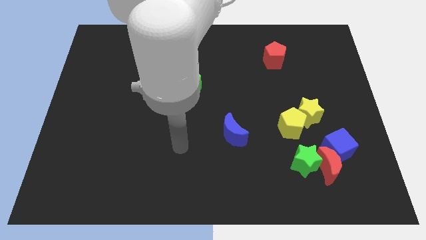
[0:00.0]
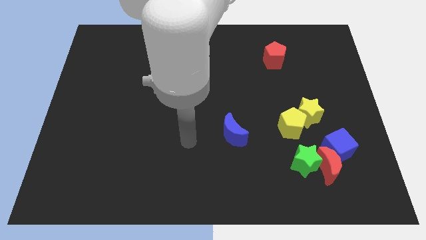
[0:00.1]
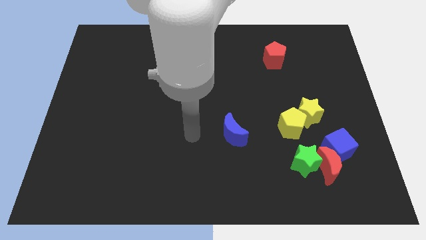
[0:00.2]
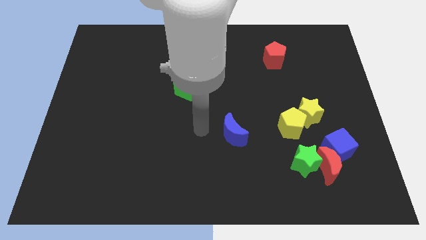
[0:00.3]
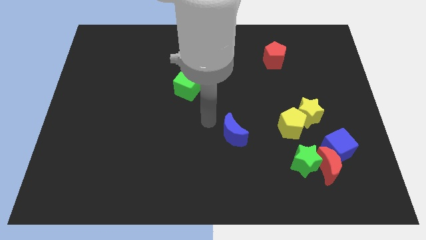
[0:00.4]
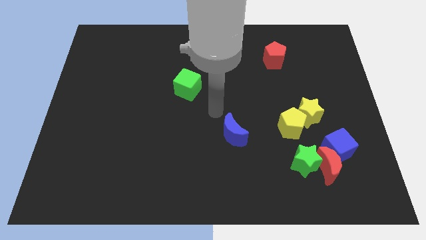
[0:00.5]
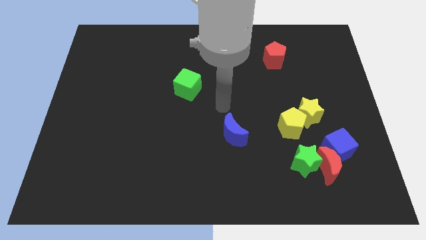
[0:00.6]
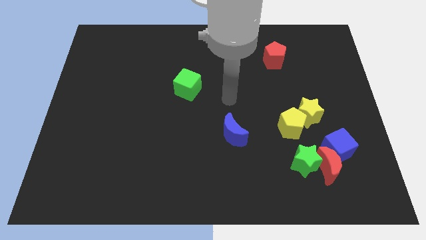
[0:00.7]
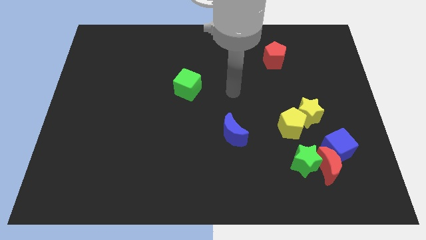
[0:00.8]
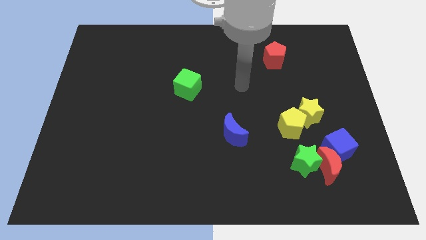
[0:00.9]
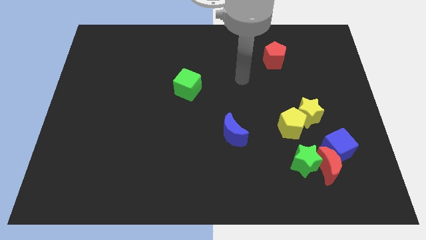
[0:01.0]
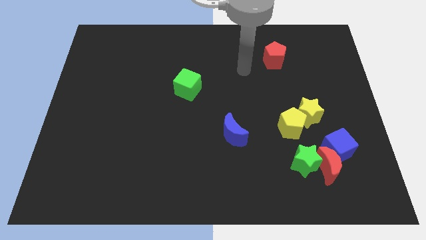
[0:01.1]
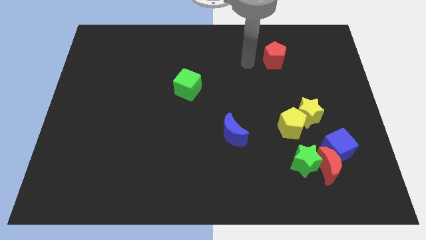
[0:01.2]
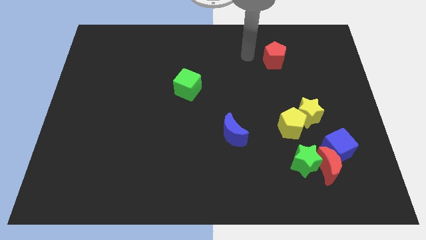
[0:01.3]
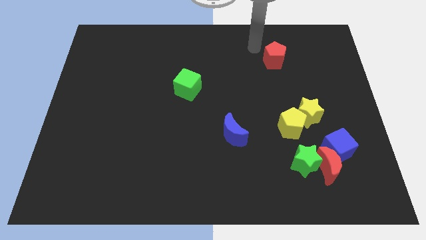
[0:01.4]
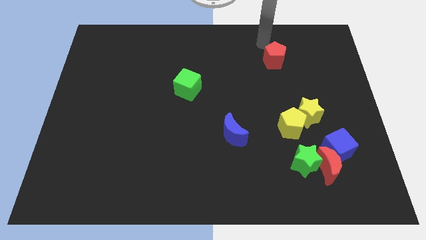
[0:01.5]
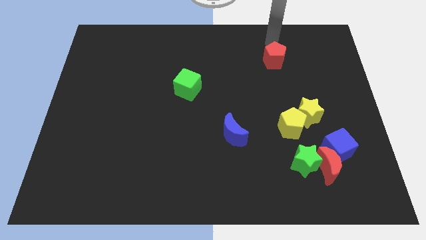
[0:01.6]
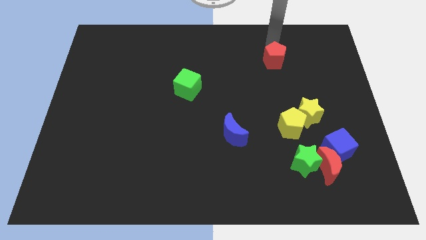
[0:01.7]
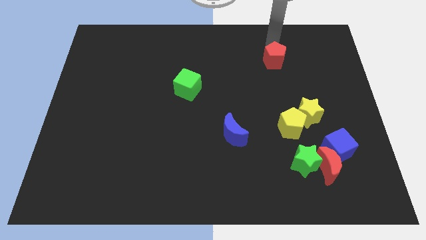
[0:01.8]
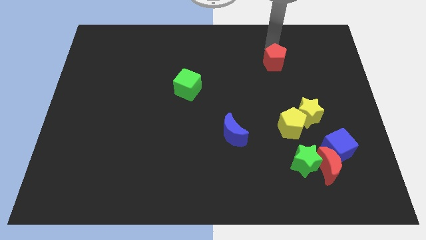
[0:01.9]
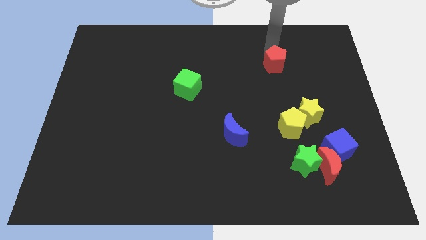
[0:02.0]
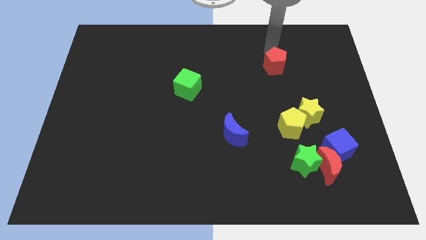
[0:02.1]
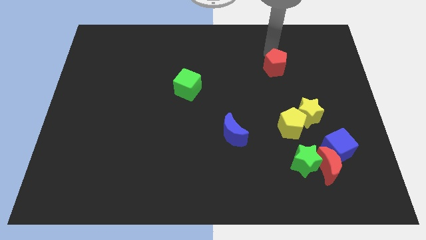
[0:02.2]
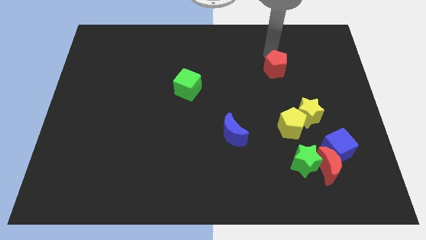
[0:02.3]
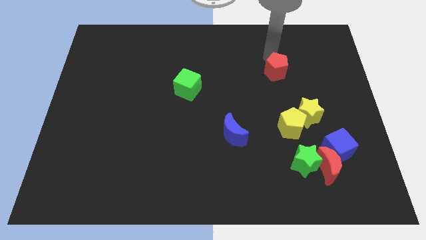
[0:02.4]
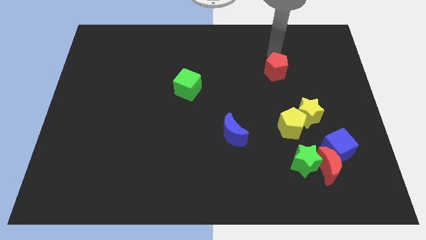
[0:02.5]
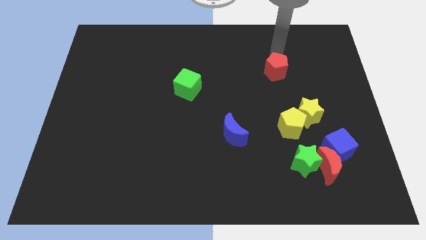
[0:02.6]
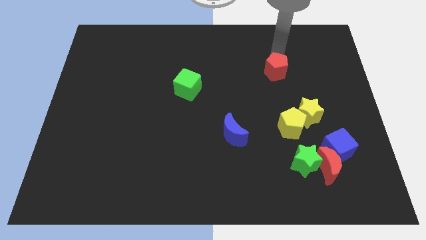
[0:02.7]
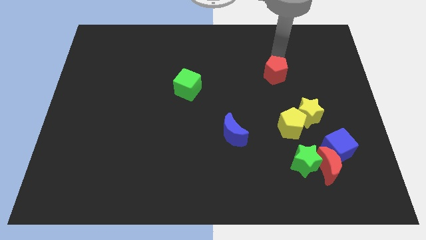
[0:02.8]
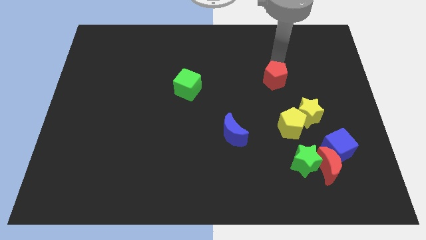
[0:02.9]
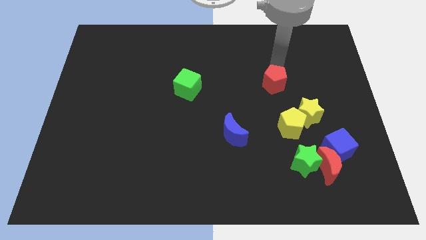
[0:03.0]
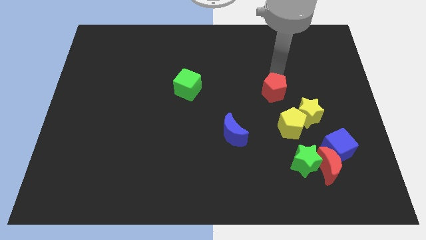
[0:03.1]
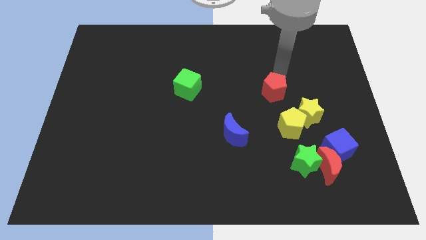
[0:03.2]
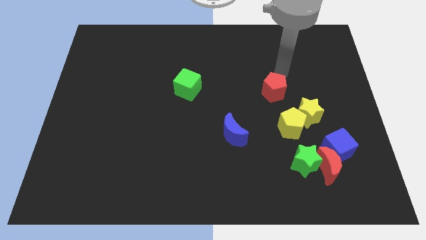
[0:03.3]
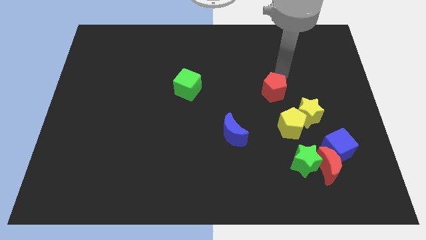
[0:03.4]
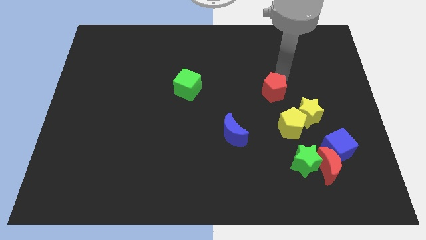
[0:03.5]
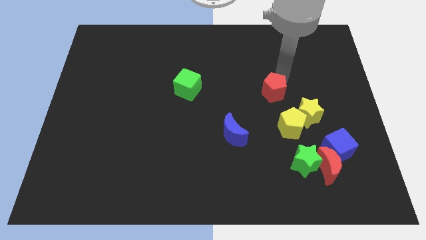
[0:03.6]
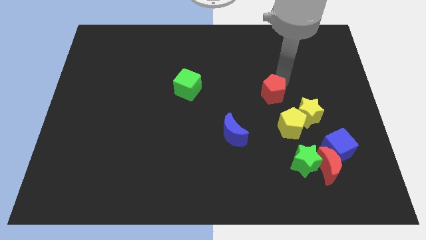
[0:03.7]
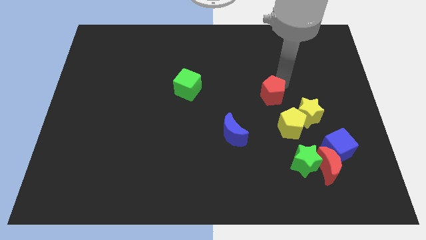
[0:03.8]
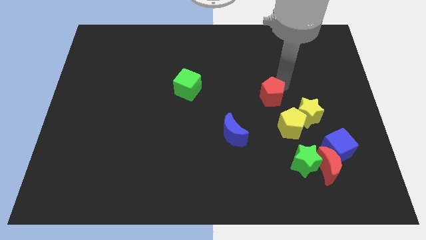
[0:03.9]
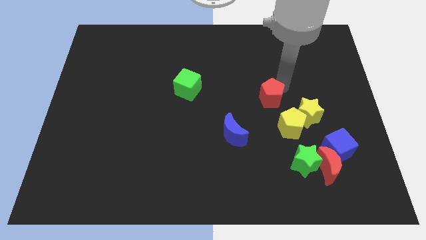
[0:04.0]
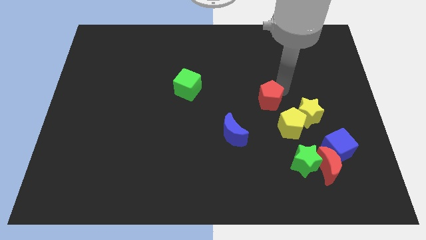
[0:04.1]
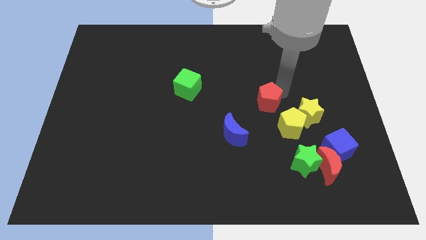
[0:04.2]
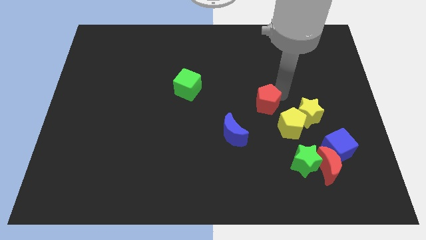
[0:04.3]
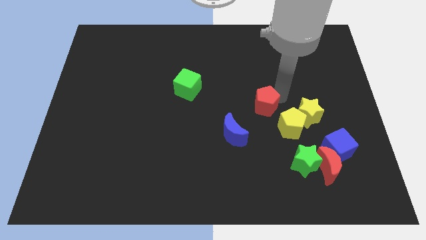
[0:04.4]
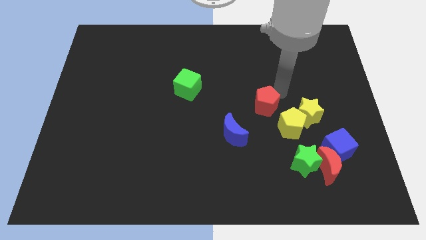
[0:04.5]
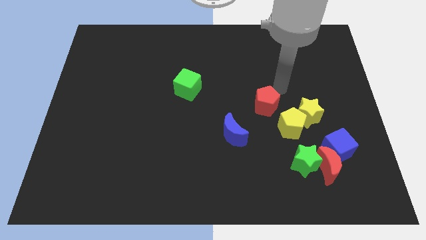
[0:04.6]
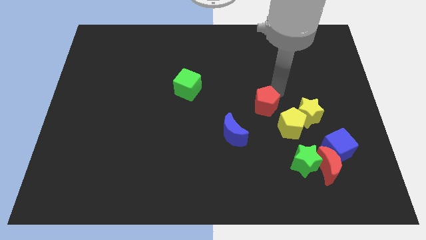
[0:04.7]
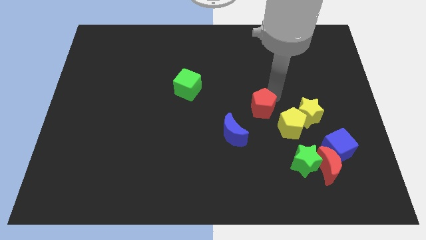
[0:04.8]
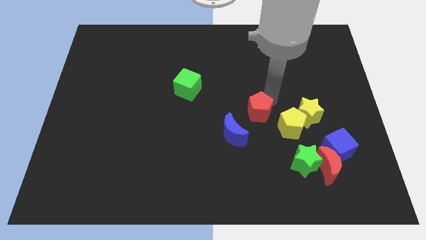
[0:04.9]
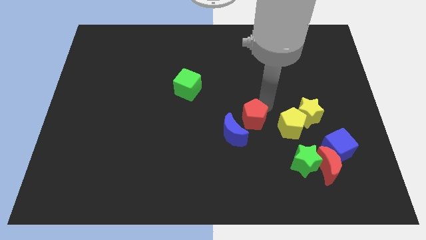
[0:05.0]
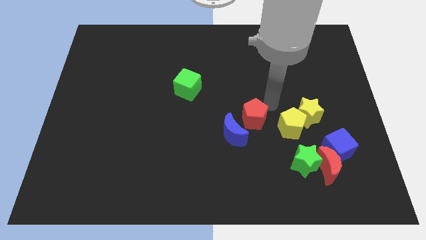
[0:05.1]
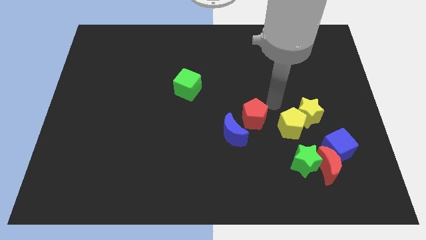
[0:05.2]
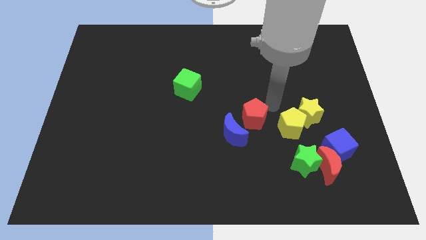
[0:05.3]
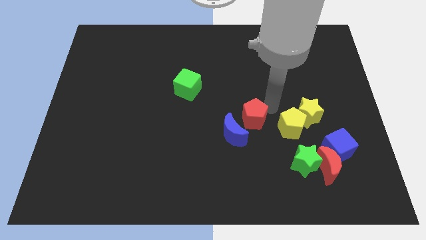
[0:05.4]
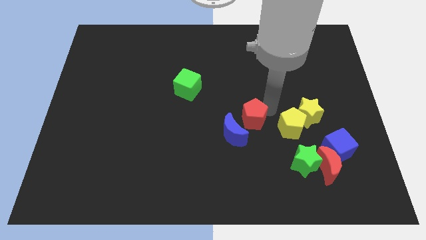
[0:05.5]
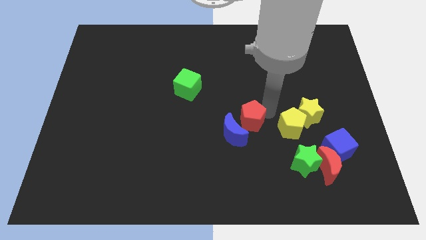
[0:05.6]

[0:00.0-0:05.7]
push the red pentagon towards the blue moon

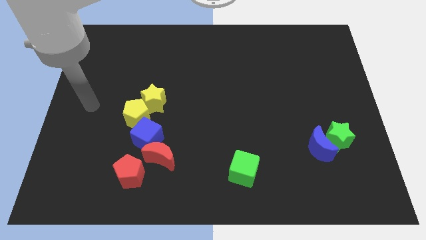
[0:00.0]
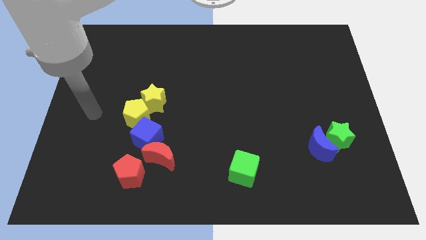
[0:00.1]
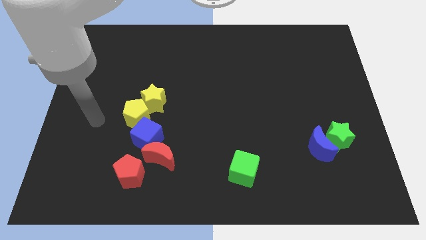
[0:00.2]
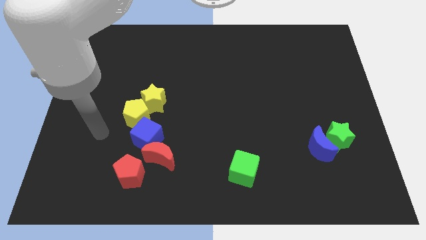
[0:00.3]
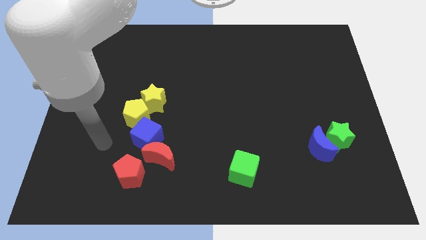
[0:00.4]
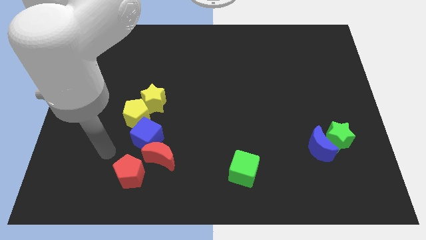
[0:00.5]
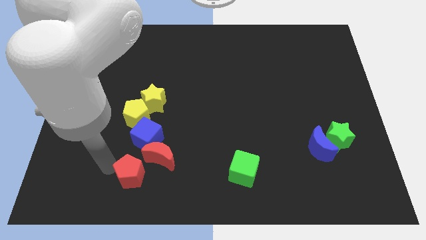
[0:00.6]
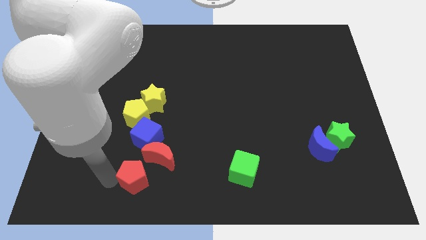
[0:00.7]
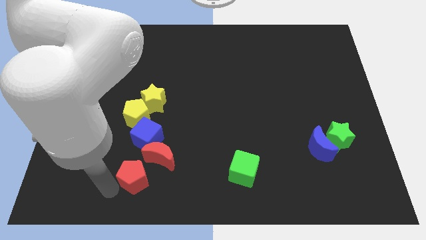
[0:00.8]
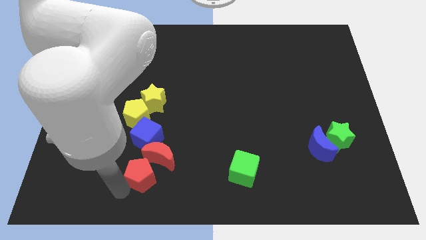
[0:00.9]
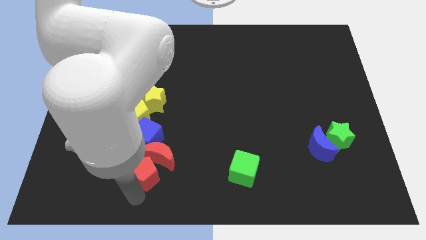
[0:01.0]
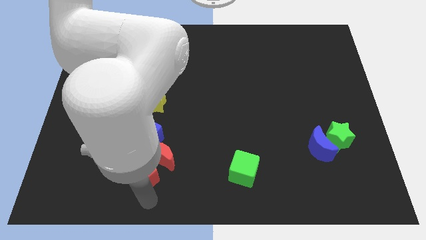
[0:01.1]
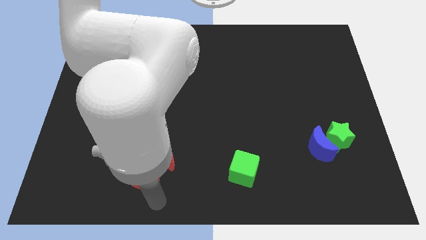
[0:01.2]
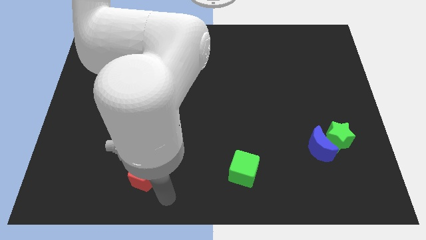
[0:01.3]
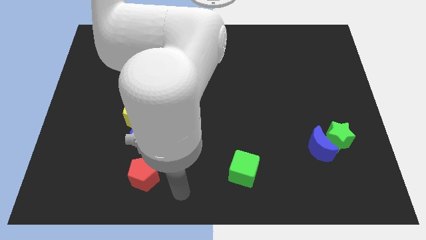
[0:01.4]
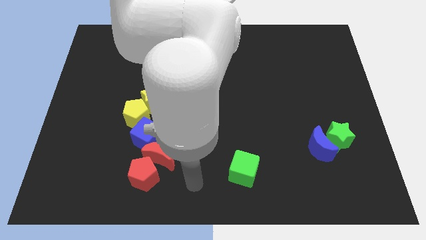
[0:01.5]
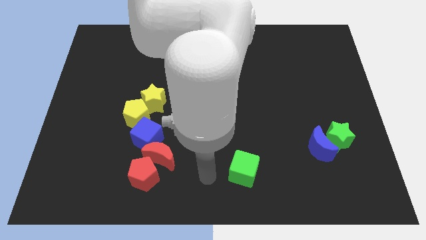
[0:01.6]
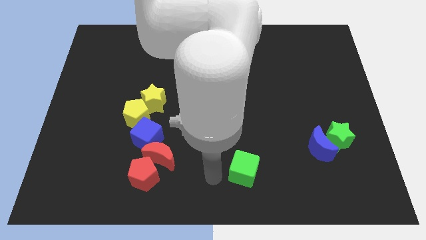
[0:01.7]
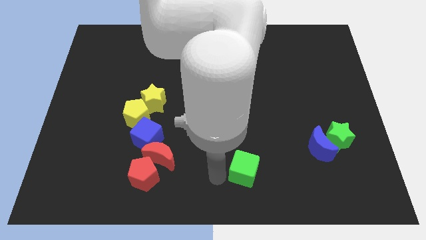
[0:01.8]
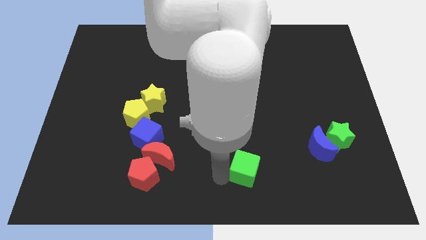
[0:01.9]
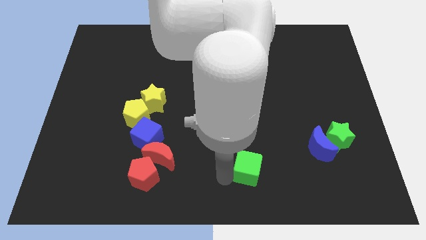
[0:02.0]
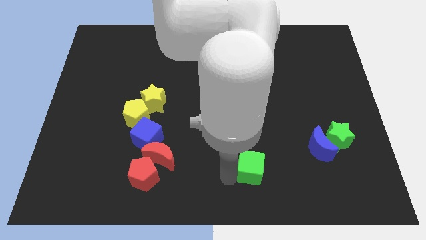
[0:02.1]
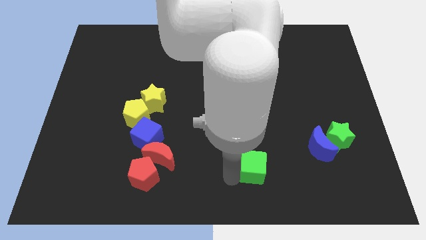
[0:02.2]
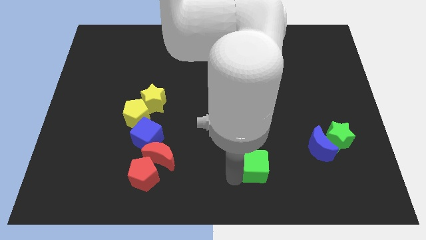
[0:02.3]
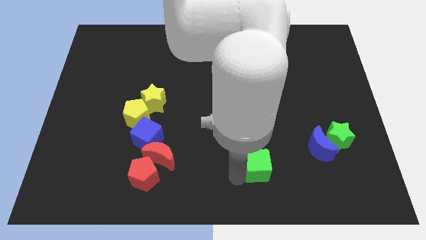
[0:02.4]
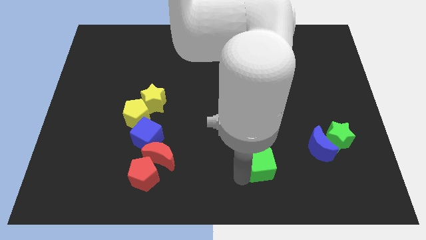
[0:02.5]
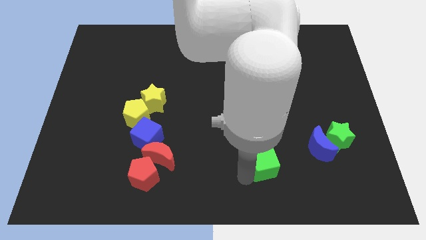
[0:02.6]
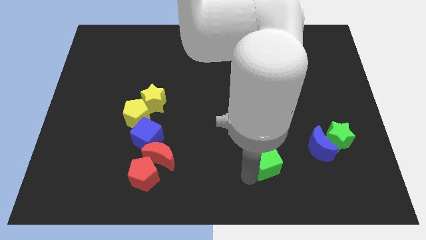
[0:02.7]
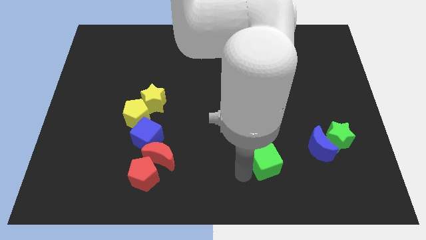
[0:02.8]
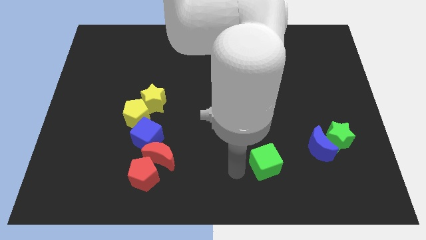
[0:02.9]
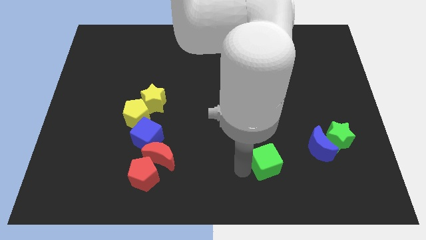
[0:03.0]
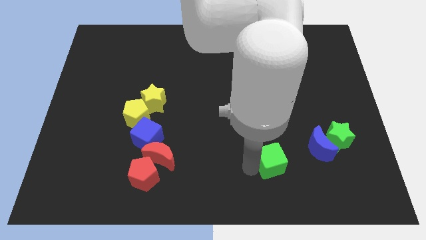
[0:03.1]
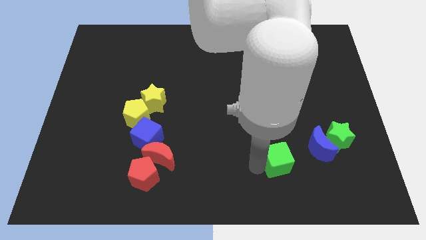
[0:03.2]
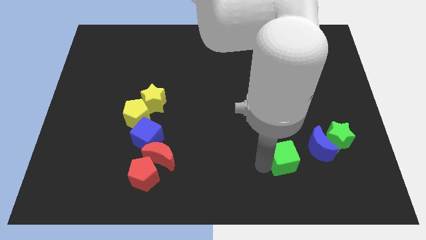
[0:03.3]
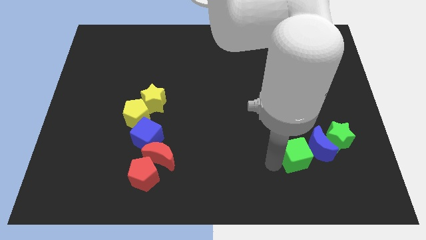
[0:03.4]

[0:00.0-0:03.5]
push the green cube towards the blue moon
